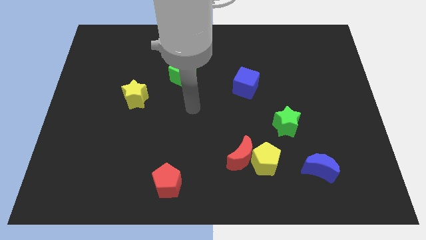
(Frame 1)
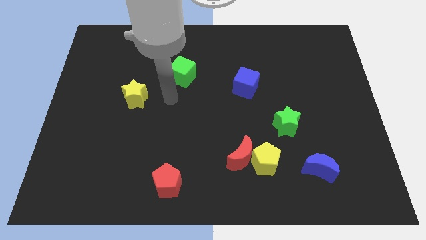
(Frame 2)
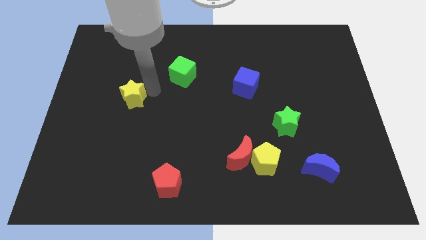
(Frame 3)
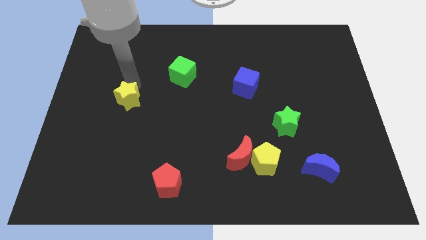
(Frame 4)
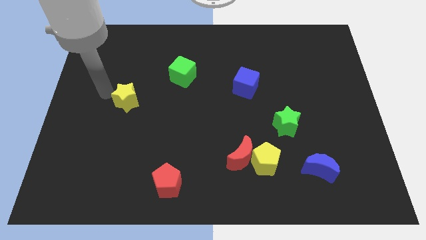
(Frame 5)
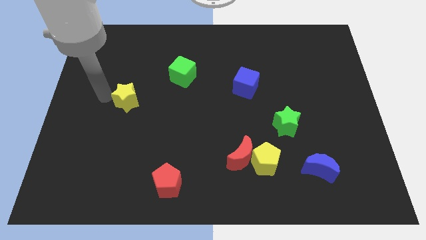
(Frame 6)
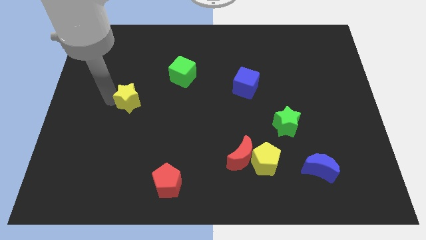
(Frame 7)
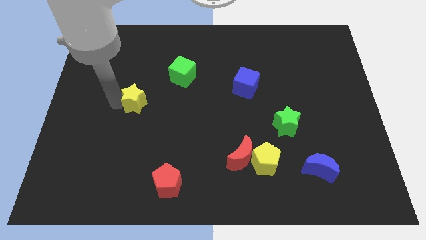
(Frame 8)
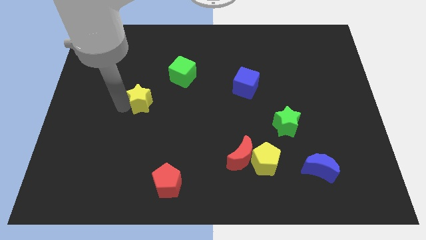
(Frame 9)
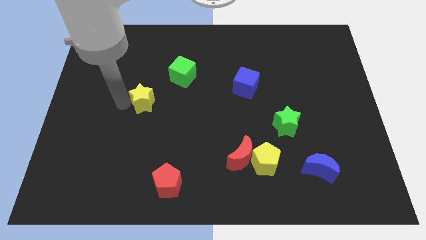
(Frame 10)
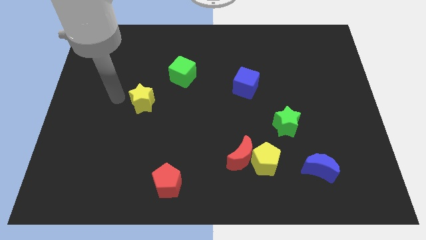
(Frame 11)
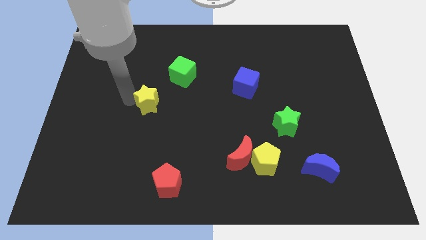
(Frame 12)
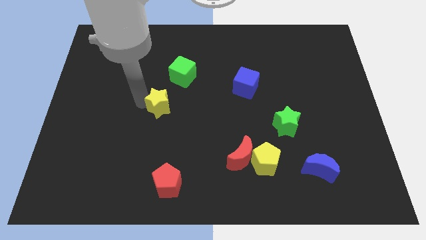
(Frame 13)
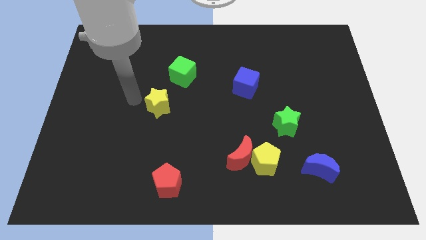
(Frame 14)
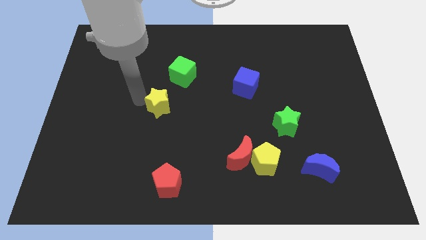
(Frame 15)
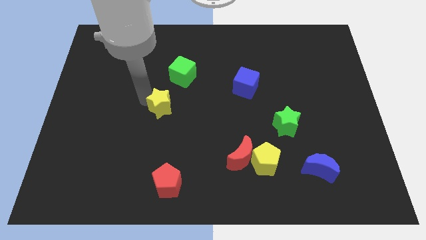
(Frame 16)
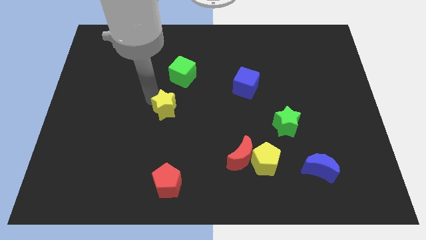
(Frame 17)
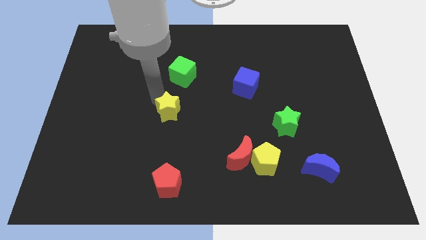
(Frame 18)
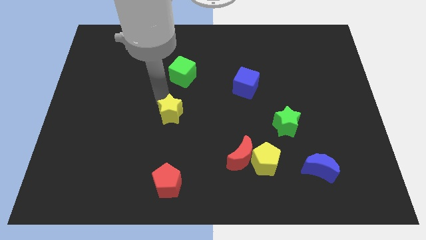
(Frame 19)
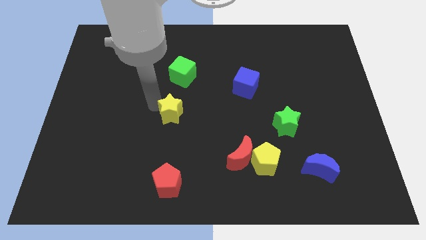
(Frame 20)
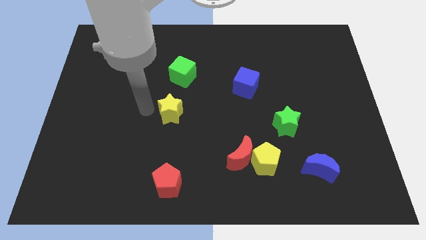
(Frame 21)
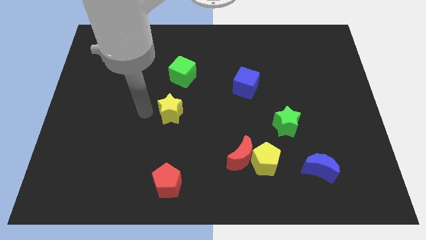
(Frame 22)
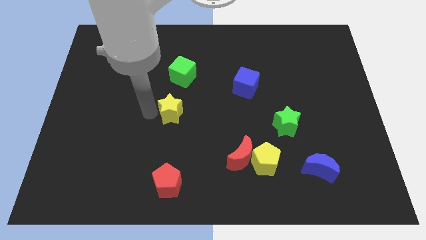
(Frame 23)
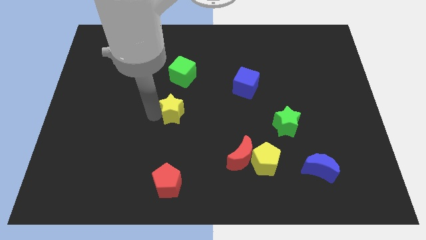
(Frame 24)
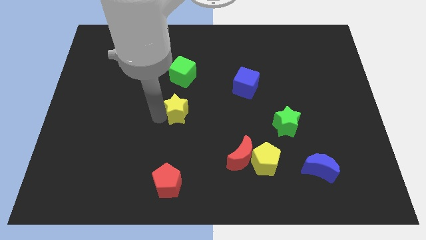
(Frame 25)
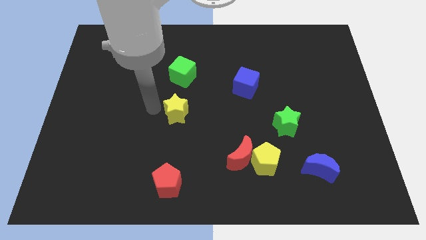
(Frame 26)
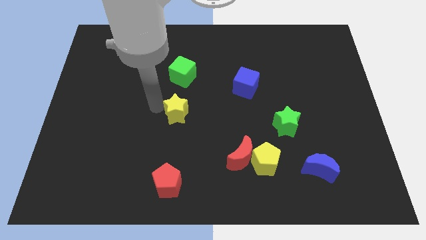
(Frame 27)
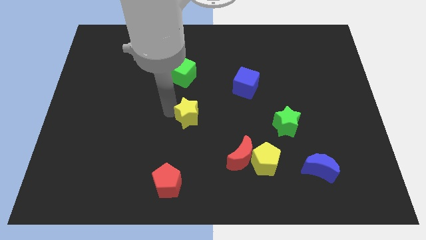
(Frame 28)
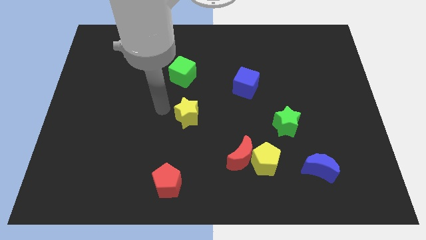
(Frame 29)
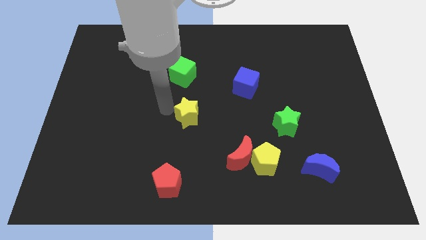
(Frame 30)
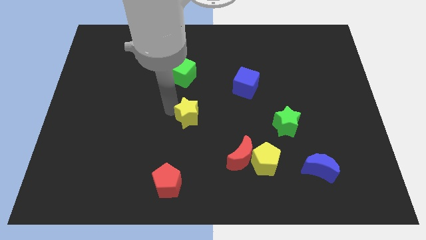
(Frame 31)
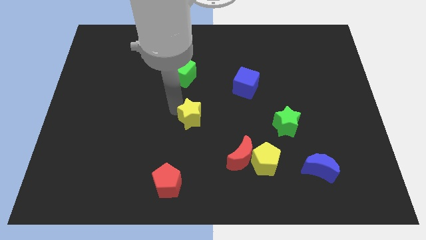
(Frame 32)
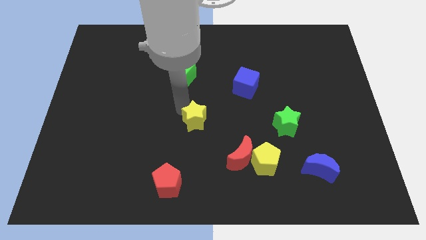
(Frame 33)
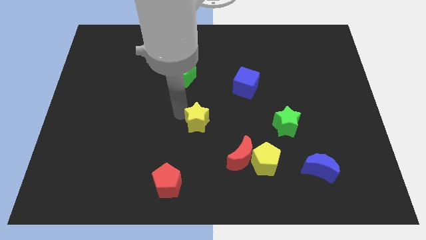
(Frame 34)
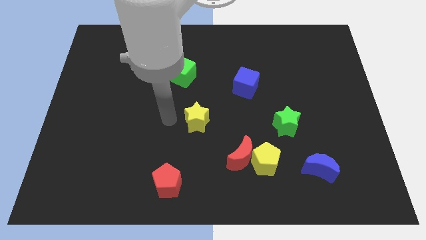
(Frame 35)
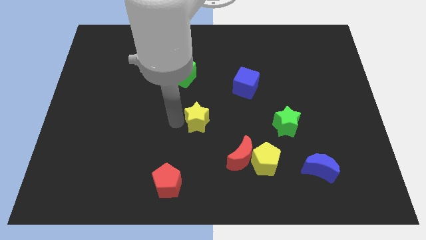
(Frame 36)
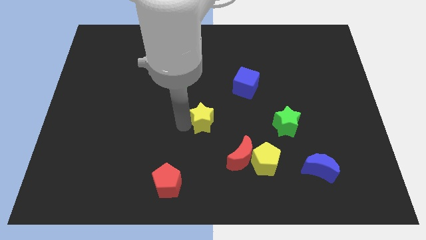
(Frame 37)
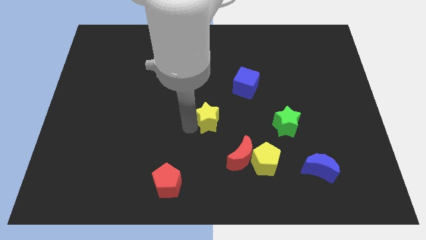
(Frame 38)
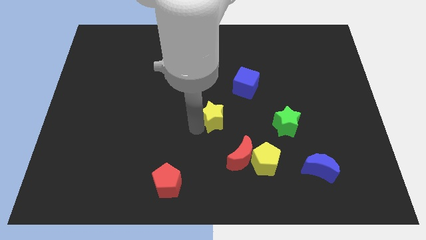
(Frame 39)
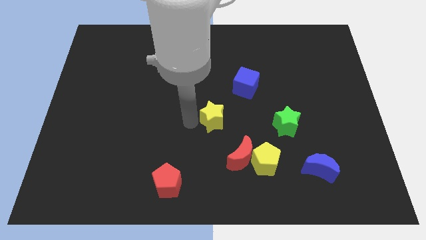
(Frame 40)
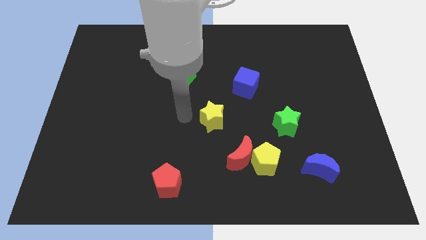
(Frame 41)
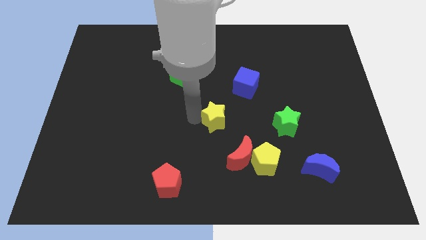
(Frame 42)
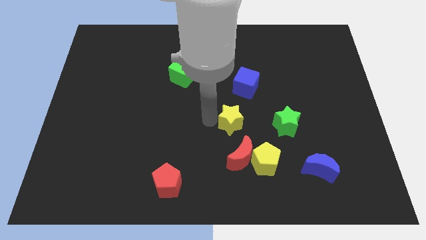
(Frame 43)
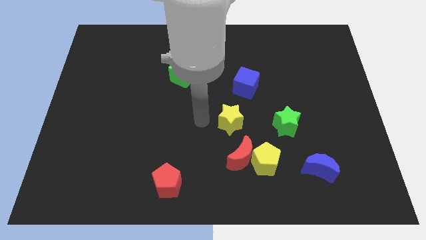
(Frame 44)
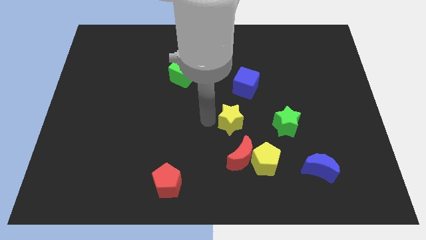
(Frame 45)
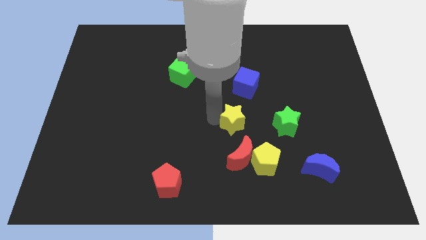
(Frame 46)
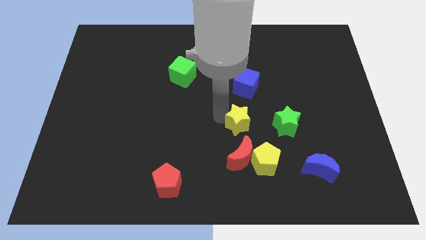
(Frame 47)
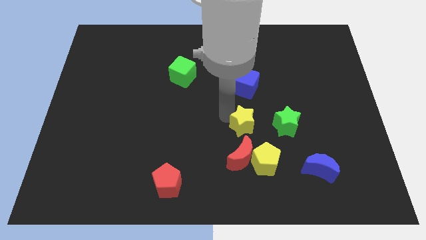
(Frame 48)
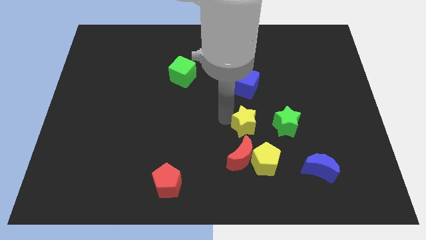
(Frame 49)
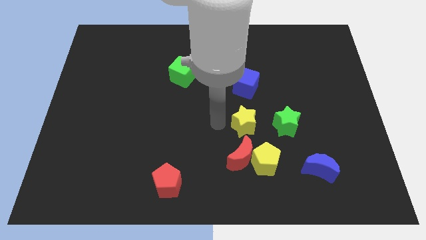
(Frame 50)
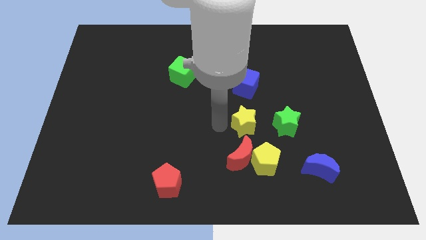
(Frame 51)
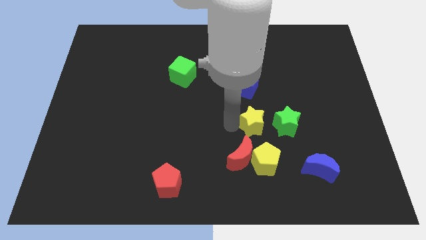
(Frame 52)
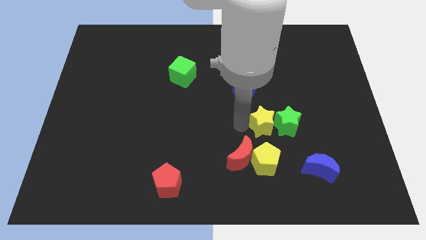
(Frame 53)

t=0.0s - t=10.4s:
push the yellow star to the green star

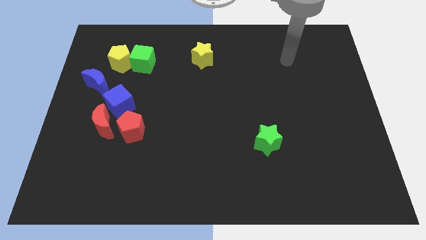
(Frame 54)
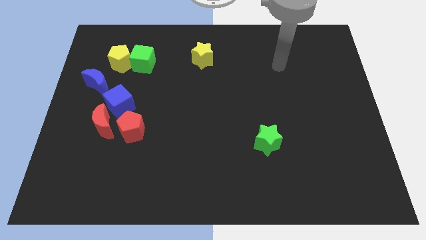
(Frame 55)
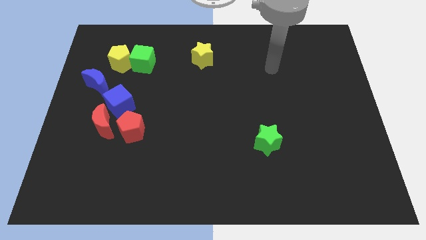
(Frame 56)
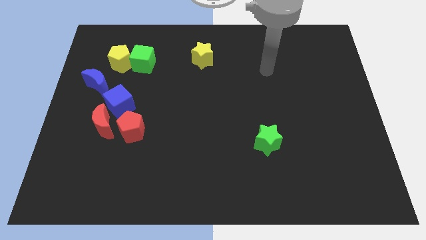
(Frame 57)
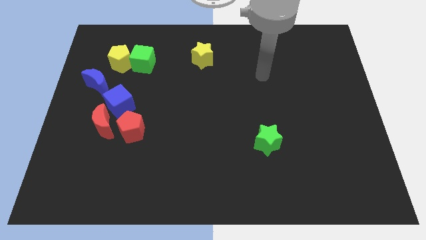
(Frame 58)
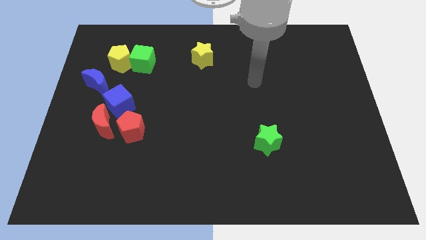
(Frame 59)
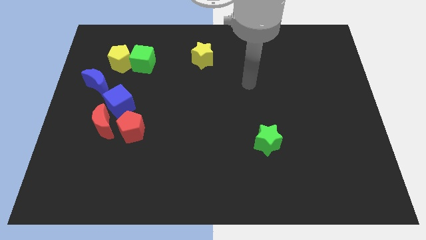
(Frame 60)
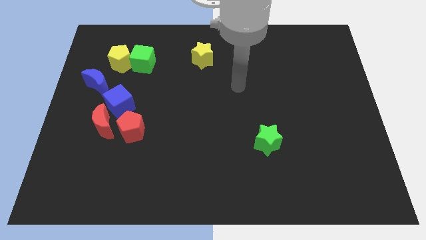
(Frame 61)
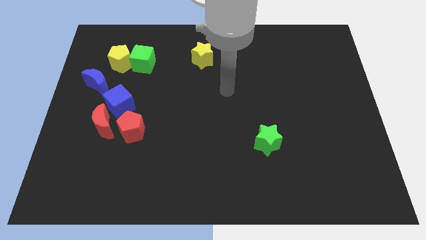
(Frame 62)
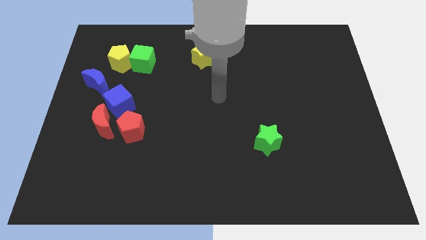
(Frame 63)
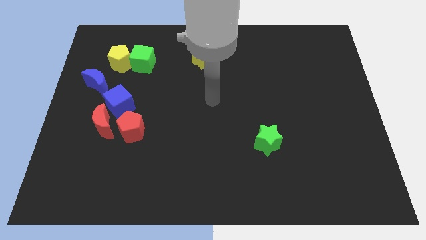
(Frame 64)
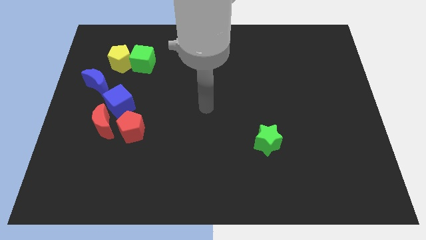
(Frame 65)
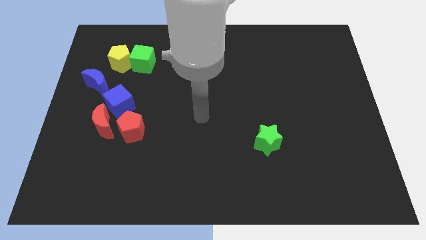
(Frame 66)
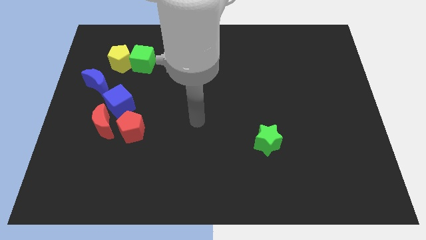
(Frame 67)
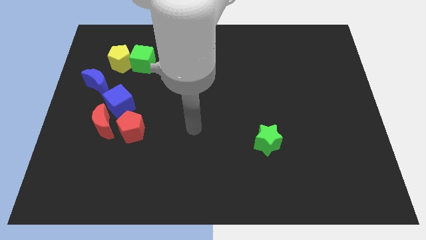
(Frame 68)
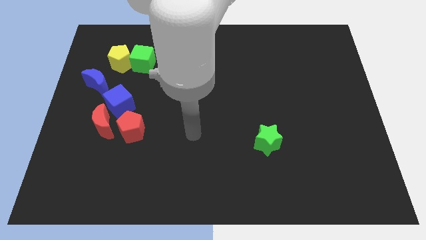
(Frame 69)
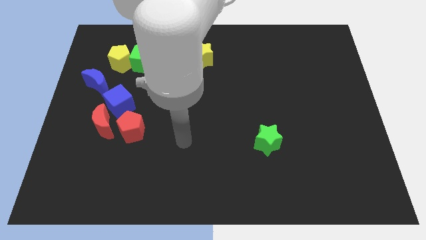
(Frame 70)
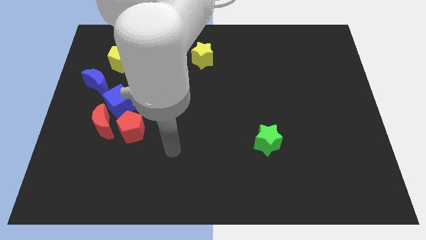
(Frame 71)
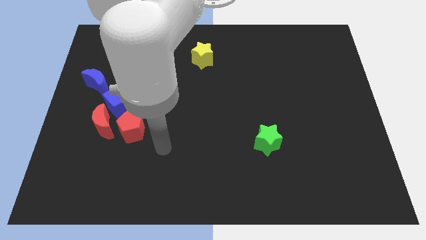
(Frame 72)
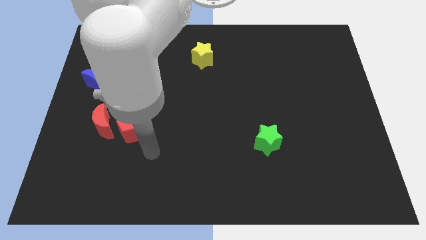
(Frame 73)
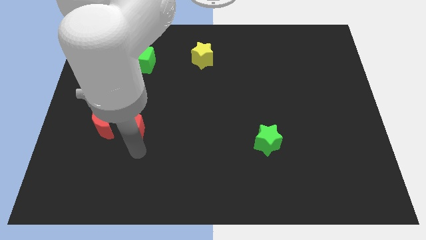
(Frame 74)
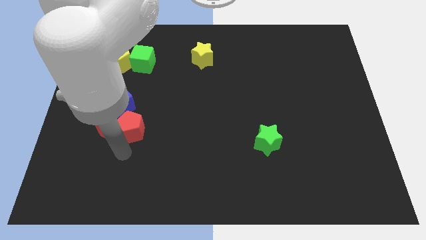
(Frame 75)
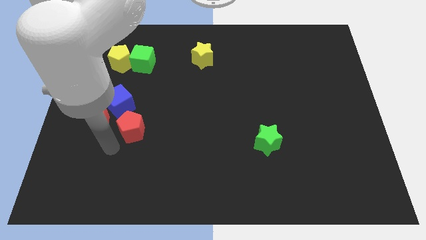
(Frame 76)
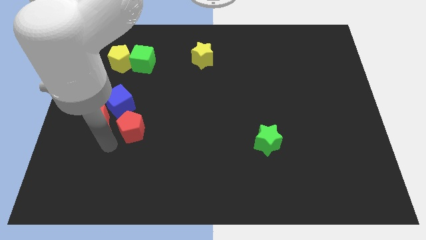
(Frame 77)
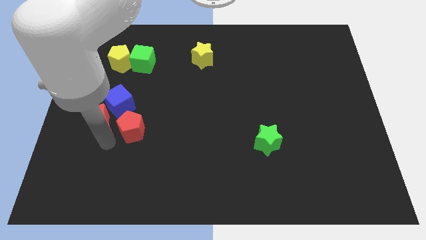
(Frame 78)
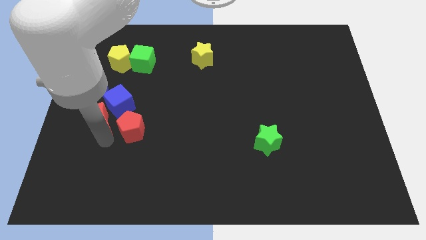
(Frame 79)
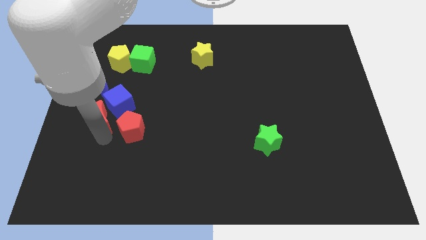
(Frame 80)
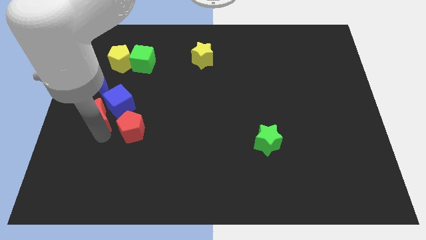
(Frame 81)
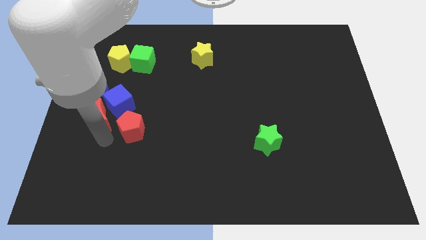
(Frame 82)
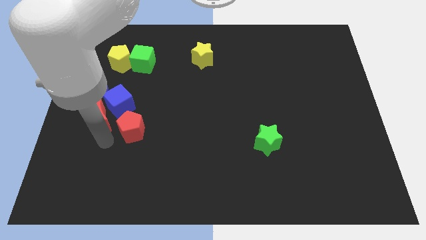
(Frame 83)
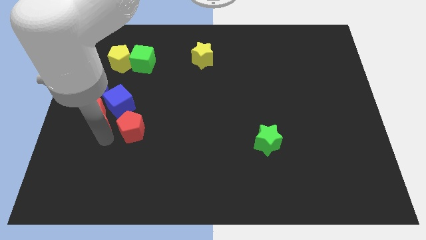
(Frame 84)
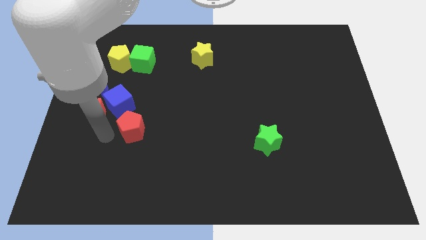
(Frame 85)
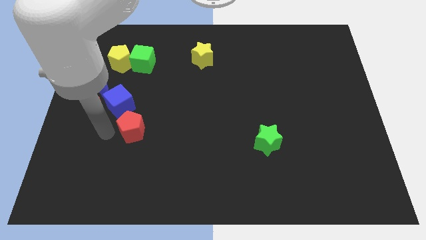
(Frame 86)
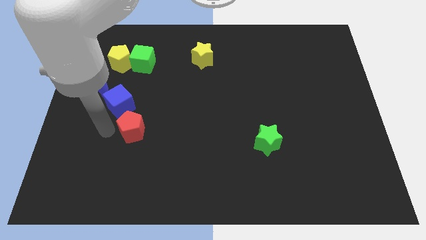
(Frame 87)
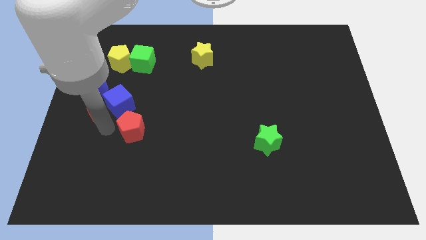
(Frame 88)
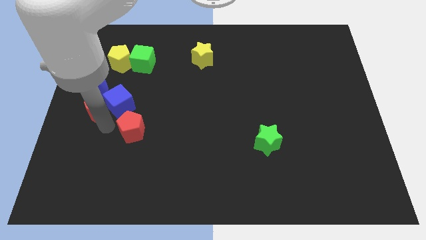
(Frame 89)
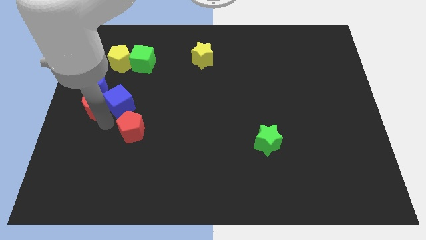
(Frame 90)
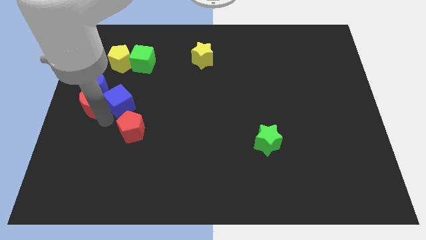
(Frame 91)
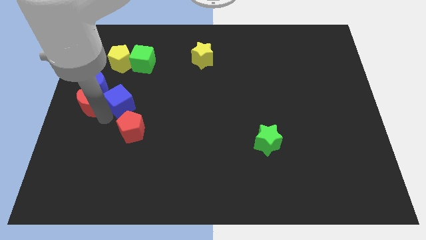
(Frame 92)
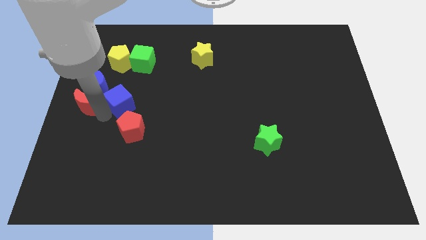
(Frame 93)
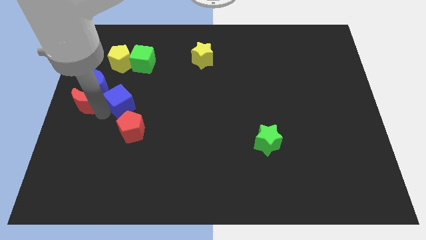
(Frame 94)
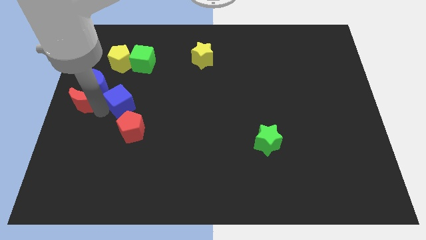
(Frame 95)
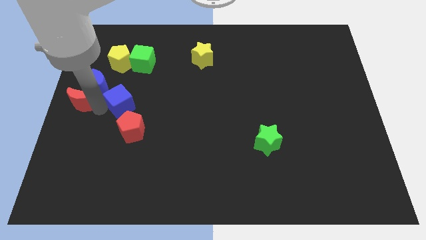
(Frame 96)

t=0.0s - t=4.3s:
move the red moon to the blue moon
